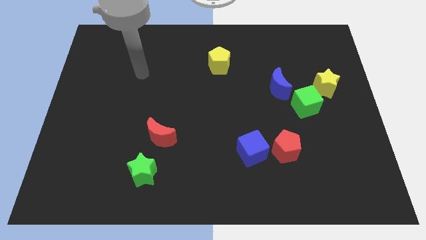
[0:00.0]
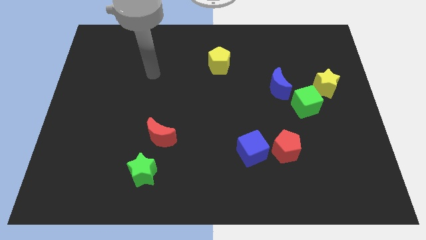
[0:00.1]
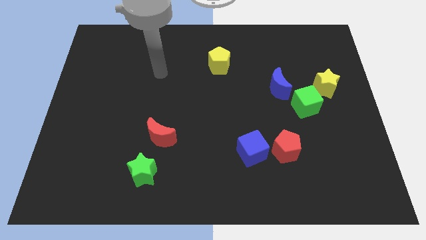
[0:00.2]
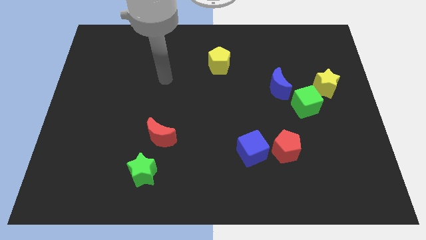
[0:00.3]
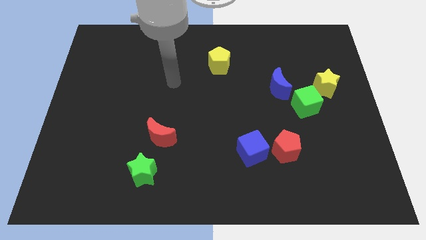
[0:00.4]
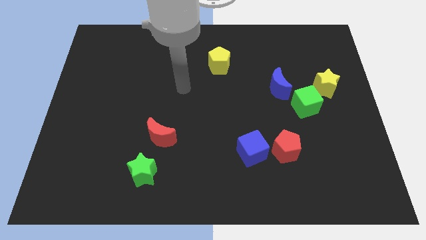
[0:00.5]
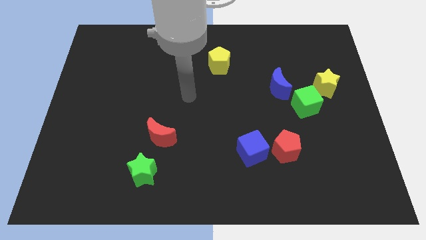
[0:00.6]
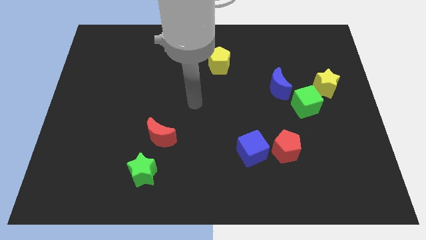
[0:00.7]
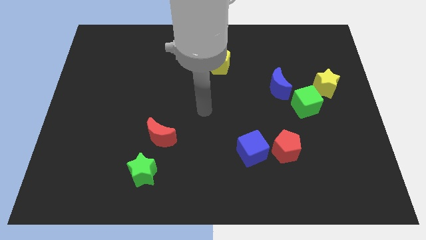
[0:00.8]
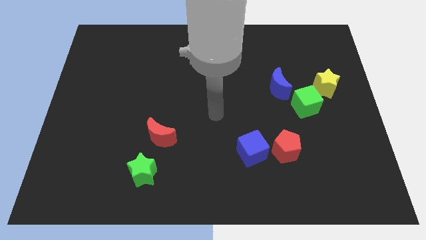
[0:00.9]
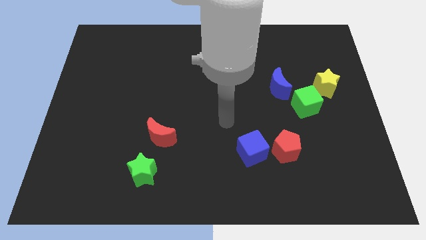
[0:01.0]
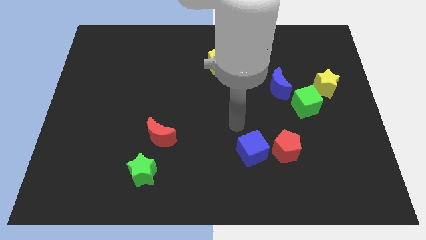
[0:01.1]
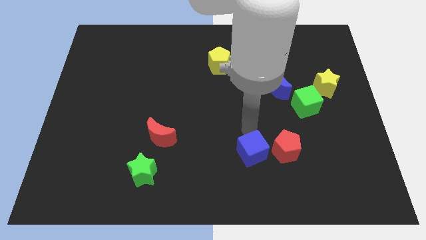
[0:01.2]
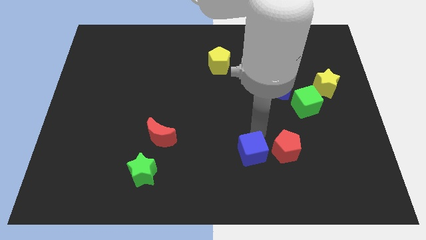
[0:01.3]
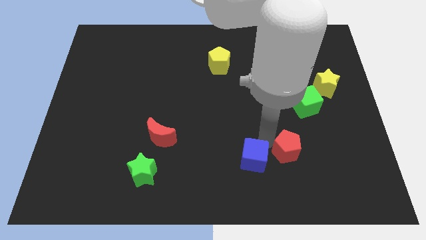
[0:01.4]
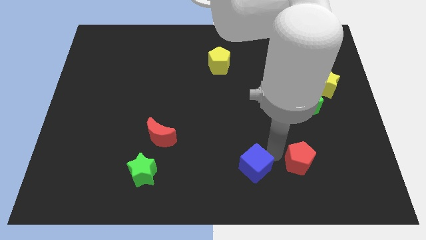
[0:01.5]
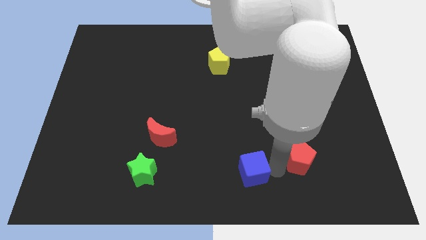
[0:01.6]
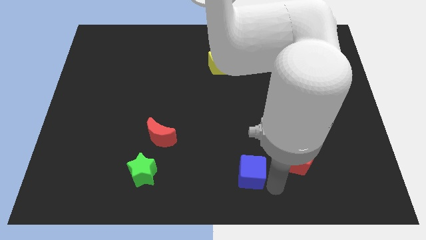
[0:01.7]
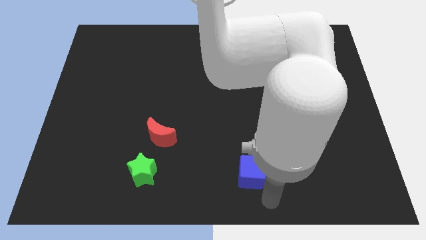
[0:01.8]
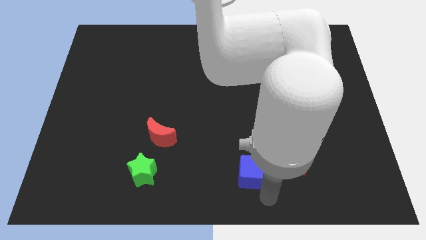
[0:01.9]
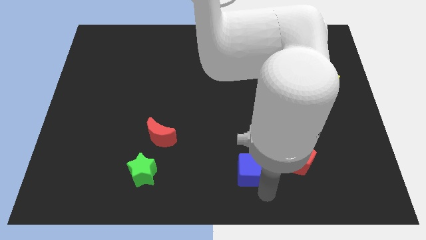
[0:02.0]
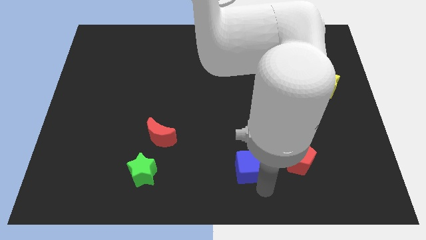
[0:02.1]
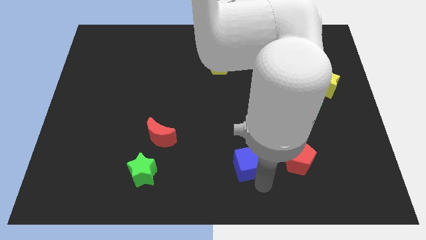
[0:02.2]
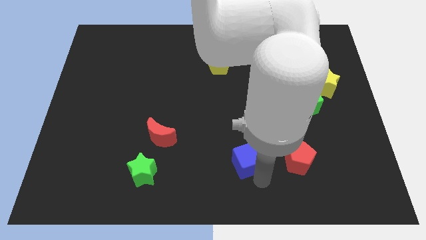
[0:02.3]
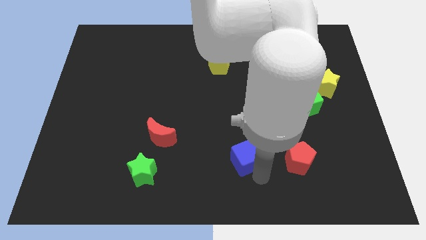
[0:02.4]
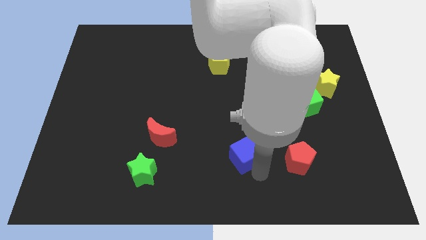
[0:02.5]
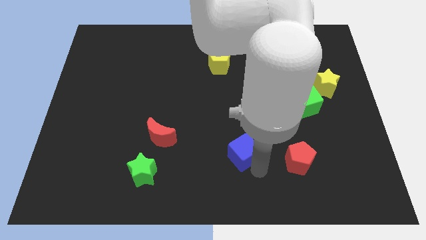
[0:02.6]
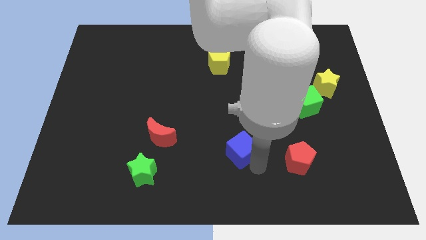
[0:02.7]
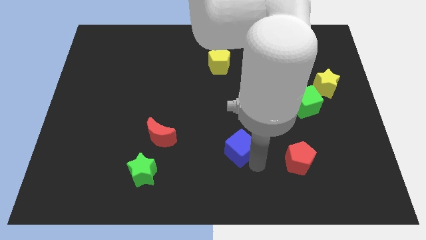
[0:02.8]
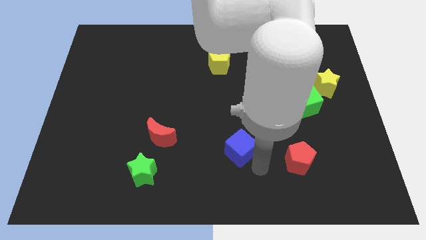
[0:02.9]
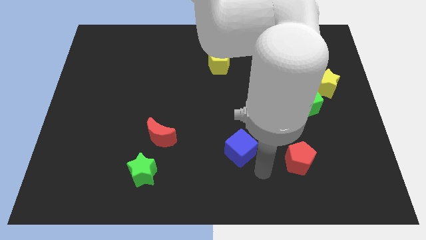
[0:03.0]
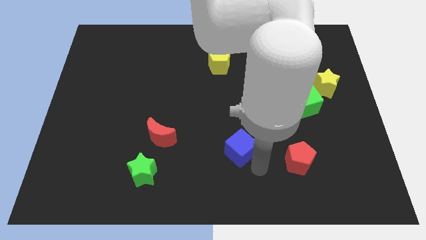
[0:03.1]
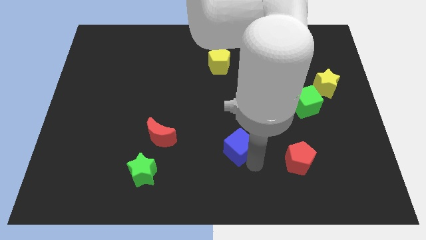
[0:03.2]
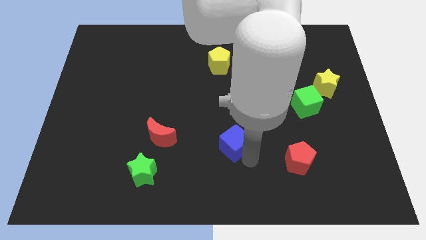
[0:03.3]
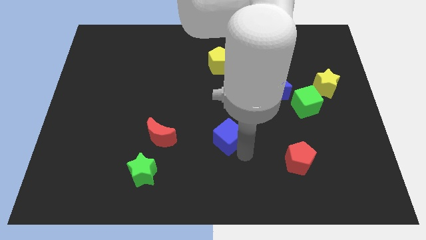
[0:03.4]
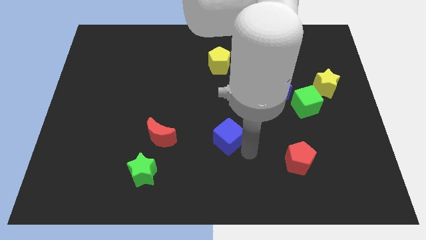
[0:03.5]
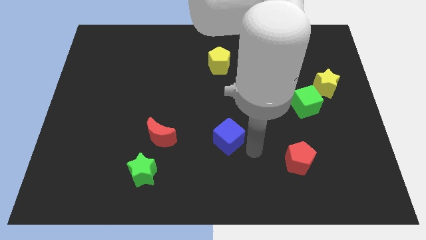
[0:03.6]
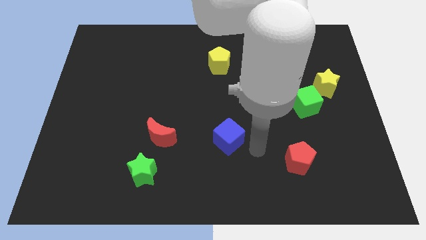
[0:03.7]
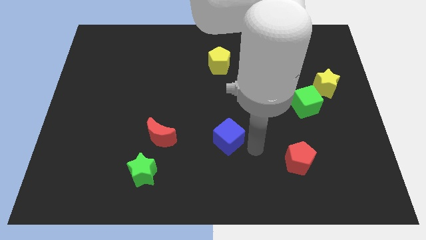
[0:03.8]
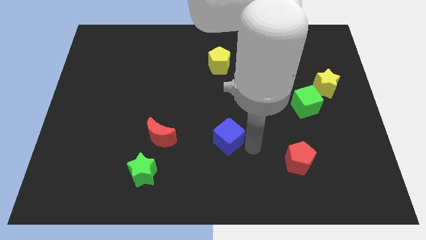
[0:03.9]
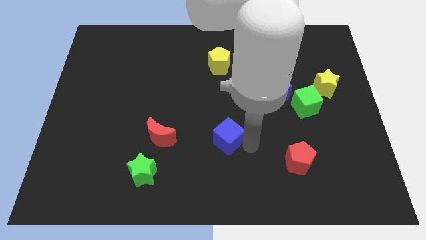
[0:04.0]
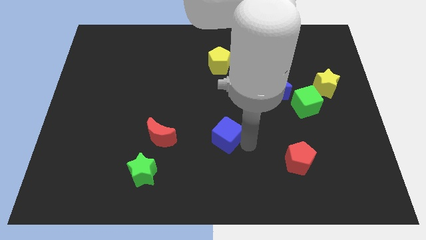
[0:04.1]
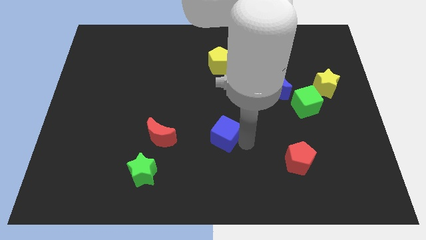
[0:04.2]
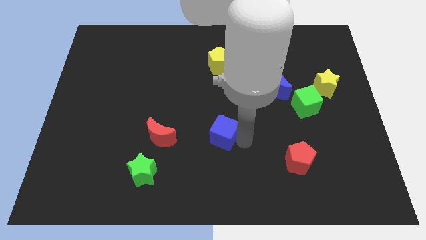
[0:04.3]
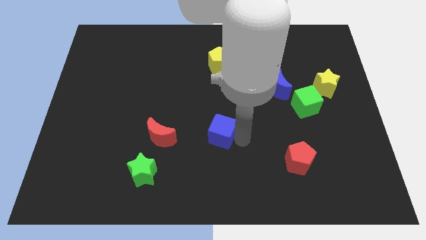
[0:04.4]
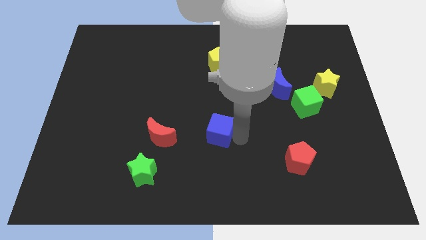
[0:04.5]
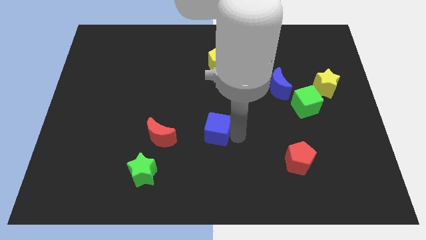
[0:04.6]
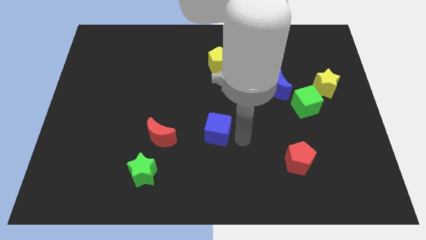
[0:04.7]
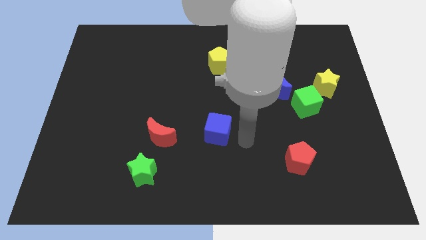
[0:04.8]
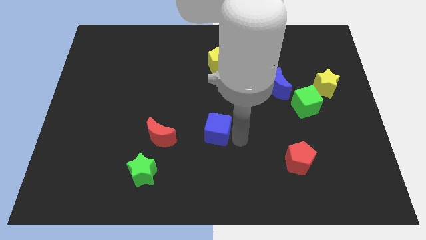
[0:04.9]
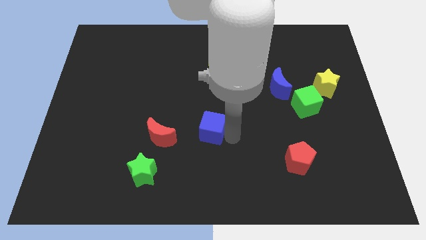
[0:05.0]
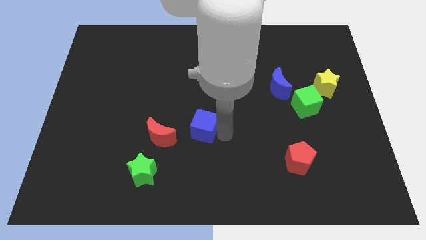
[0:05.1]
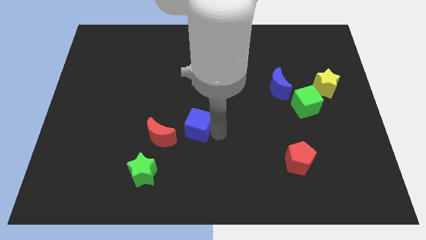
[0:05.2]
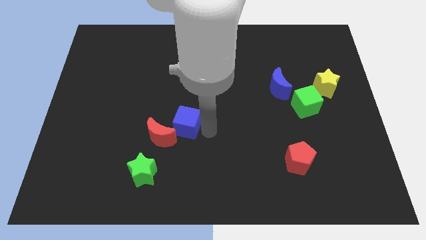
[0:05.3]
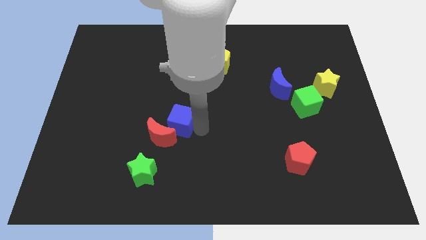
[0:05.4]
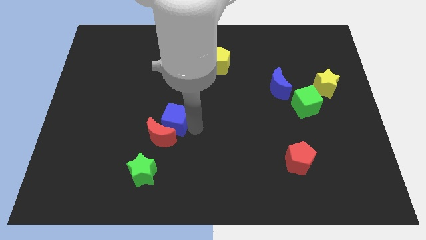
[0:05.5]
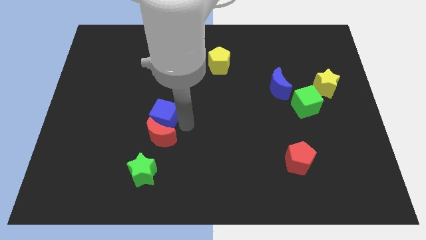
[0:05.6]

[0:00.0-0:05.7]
slide the blue cube diagonally up and to the left of the red moon

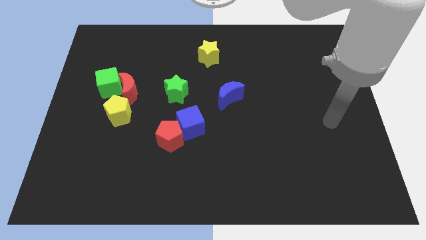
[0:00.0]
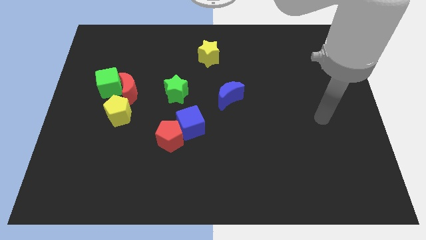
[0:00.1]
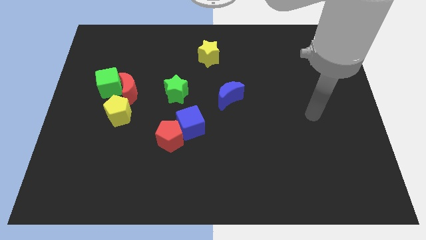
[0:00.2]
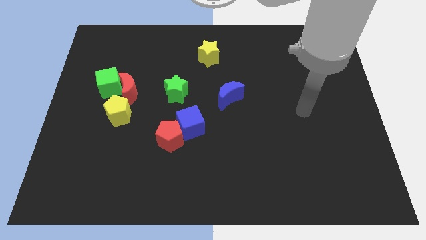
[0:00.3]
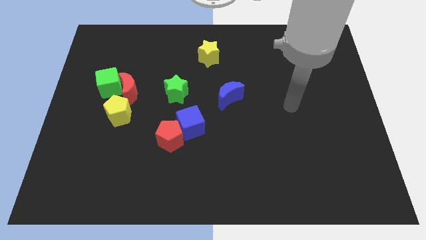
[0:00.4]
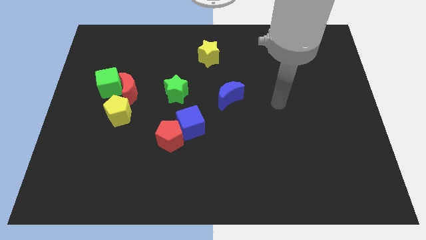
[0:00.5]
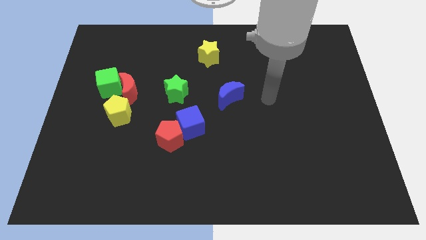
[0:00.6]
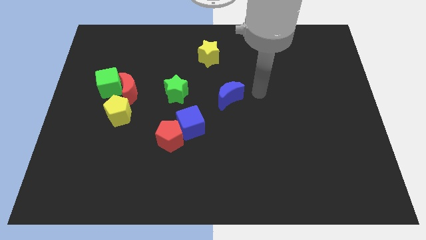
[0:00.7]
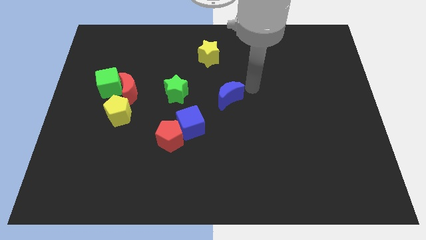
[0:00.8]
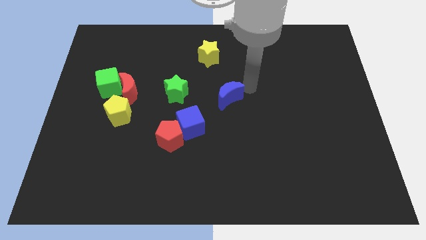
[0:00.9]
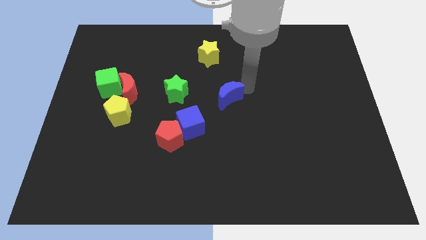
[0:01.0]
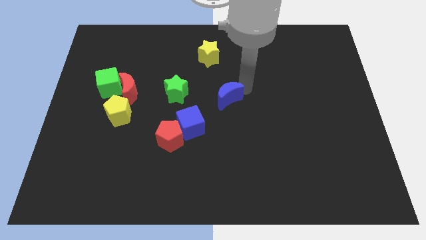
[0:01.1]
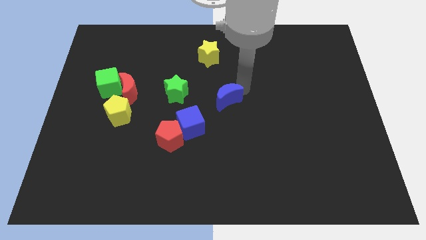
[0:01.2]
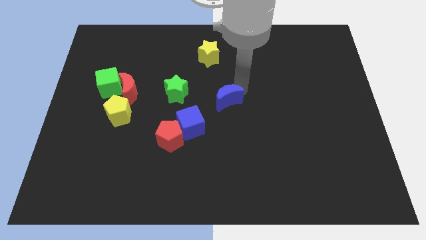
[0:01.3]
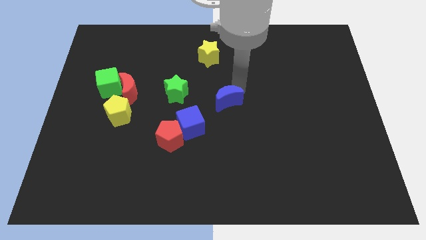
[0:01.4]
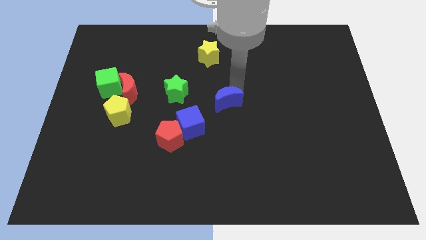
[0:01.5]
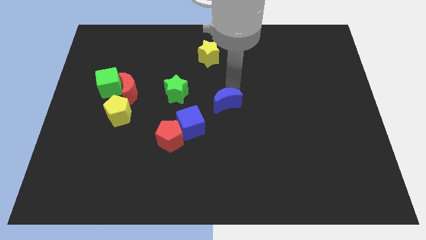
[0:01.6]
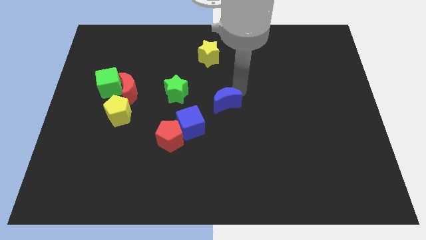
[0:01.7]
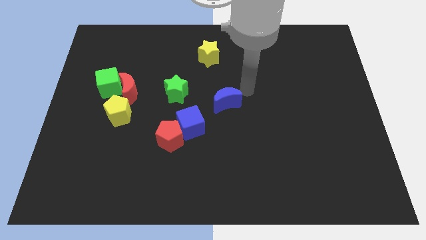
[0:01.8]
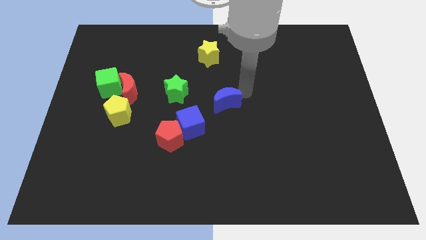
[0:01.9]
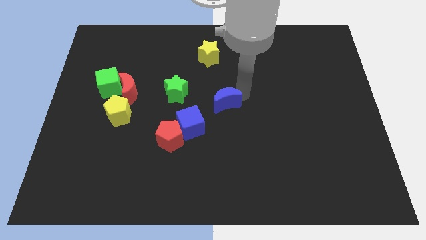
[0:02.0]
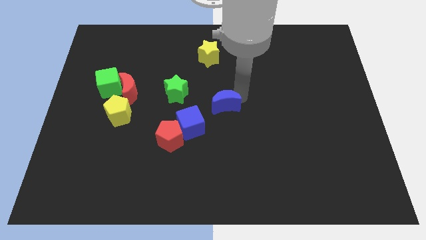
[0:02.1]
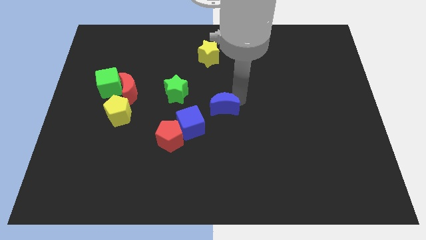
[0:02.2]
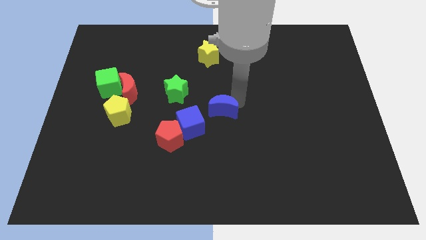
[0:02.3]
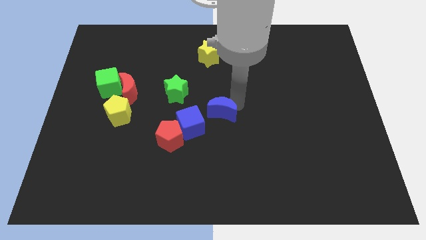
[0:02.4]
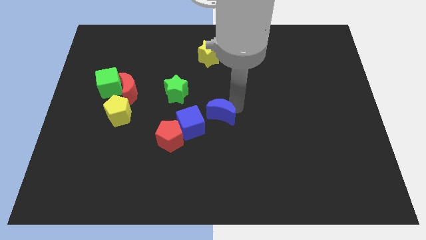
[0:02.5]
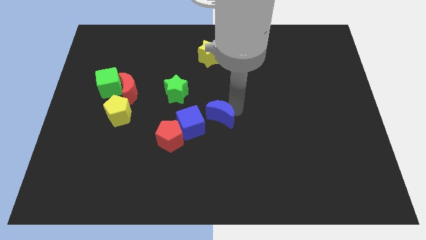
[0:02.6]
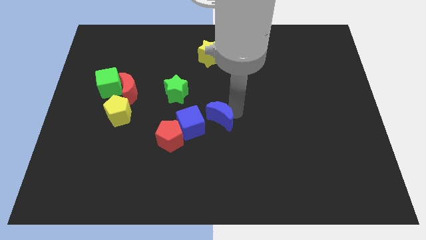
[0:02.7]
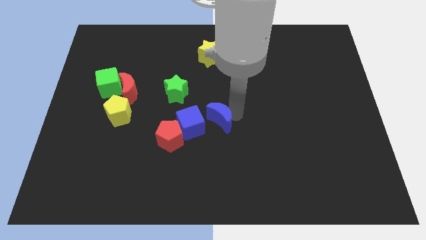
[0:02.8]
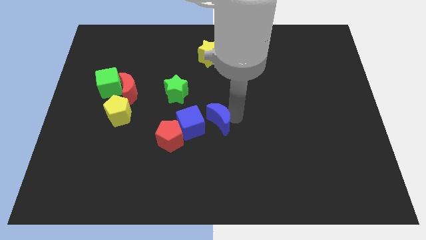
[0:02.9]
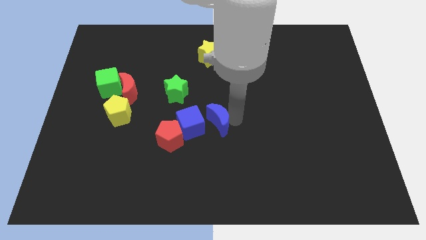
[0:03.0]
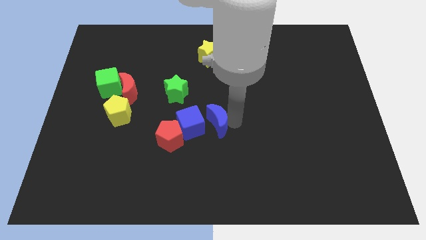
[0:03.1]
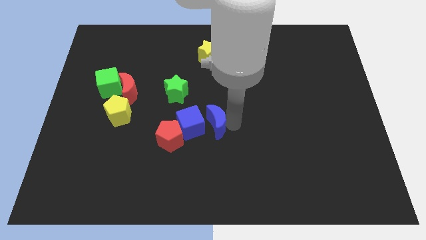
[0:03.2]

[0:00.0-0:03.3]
move the blue moon to the top right of the red pentagon
